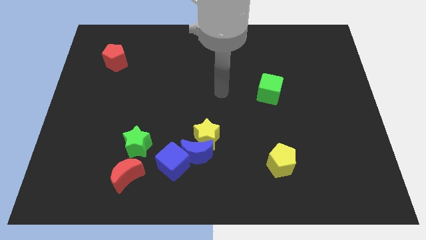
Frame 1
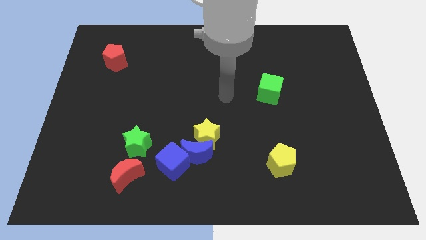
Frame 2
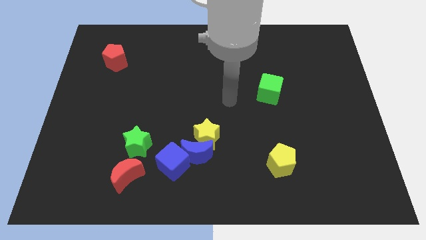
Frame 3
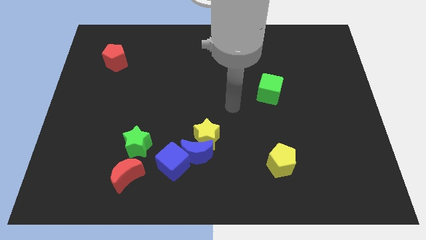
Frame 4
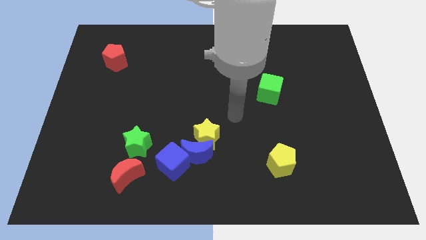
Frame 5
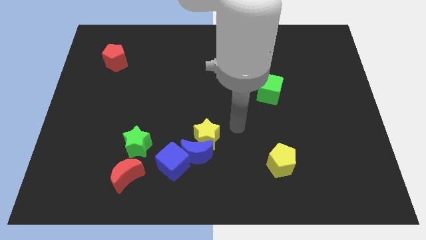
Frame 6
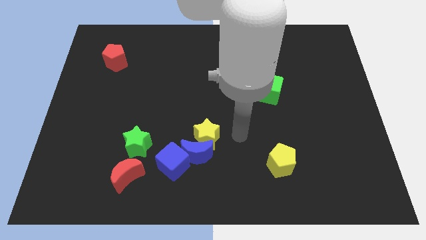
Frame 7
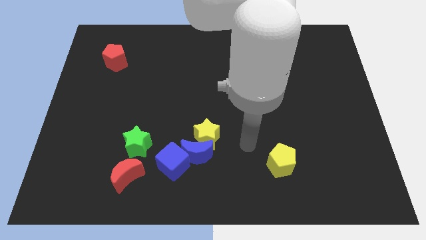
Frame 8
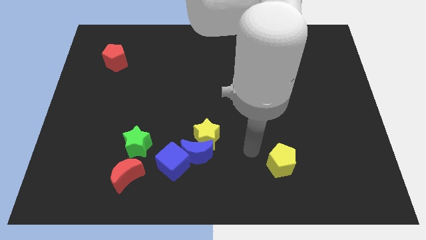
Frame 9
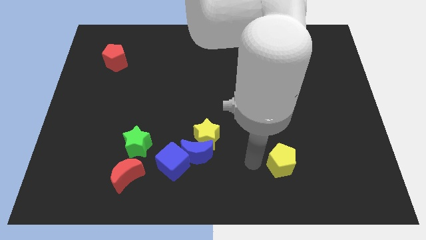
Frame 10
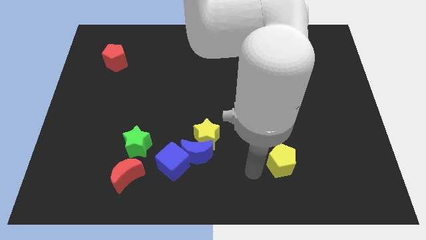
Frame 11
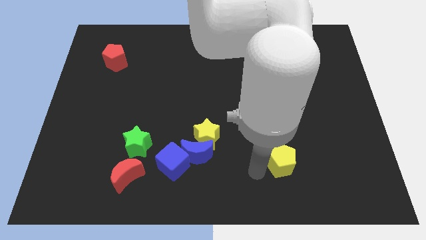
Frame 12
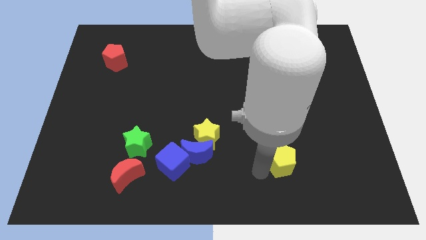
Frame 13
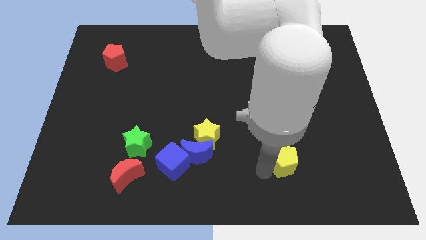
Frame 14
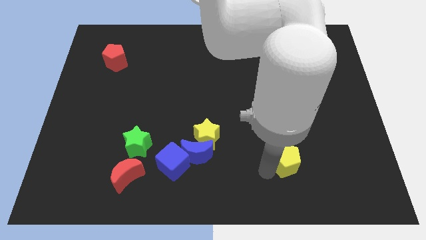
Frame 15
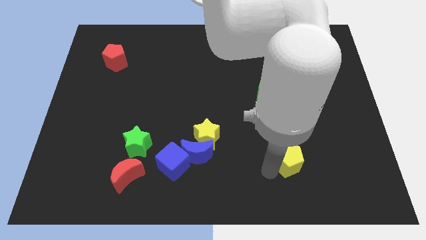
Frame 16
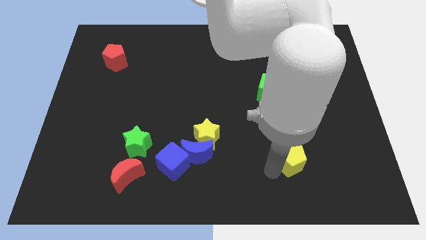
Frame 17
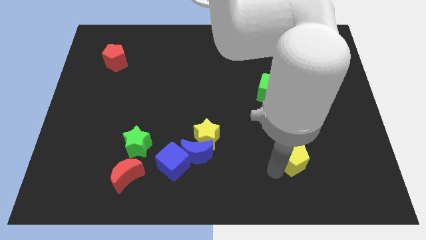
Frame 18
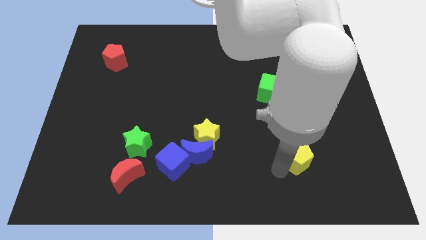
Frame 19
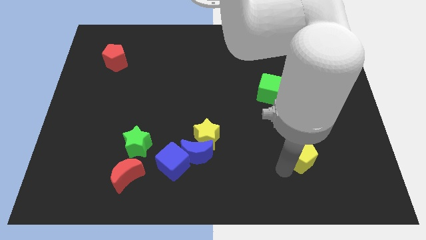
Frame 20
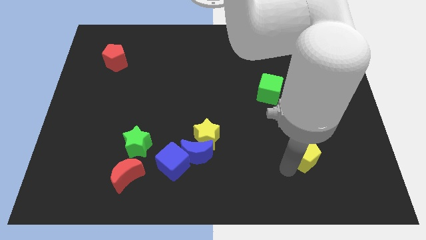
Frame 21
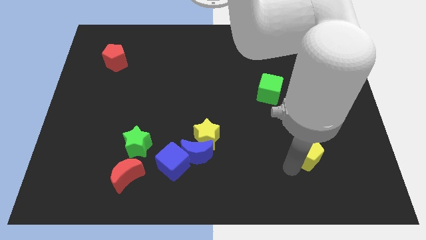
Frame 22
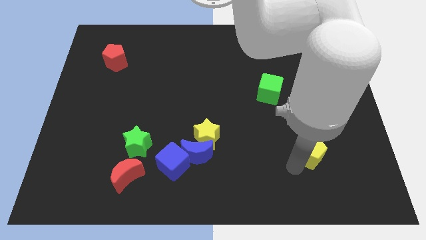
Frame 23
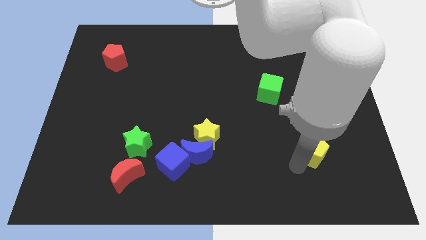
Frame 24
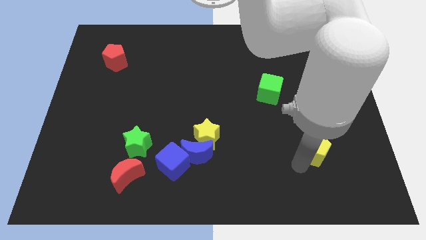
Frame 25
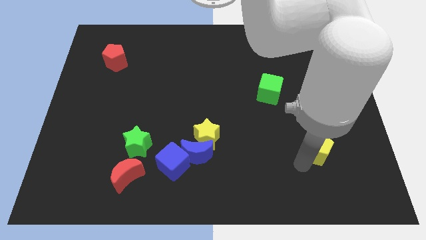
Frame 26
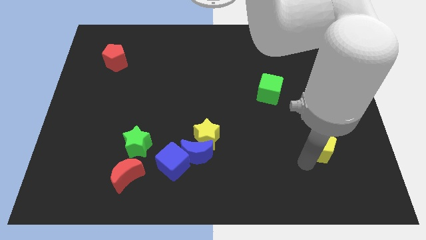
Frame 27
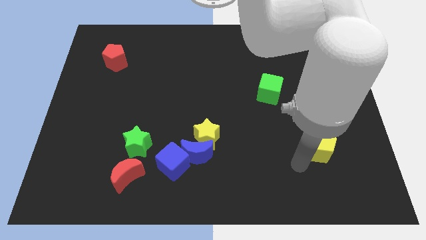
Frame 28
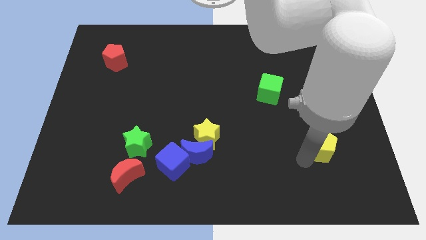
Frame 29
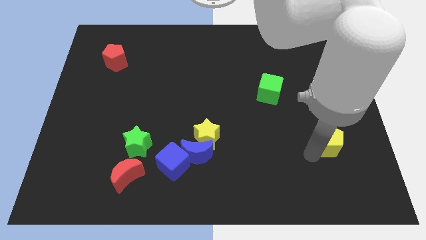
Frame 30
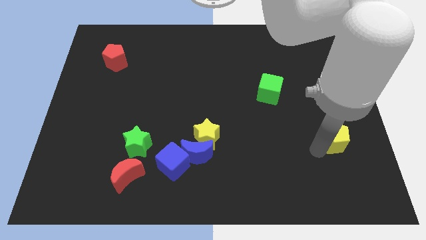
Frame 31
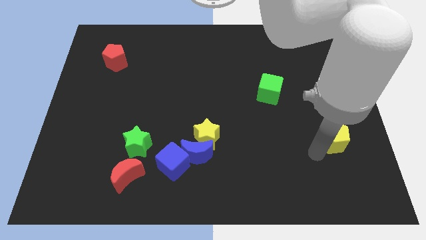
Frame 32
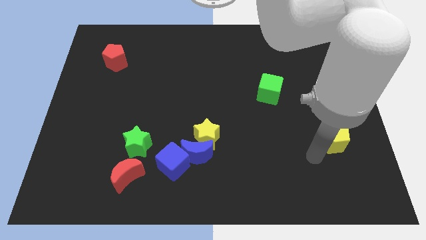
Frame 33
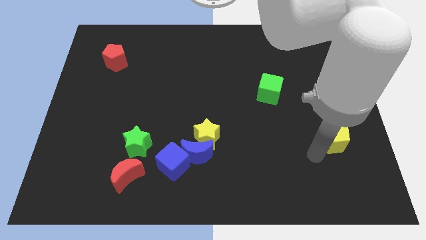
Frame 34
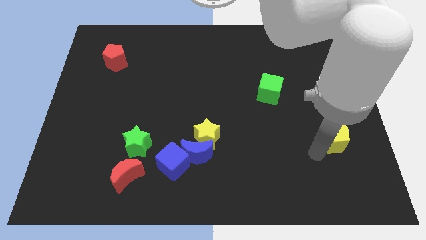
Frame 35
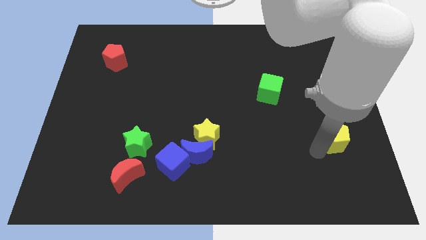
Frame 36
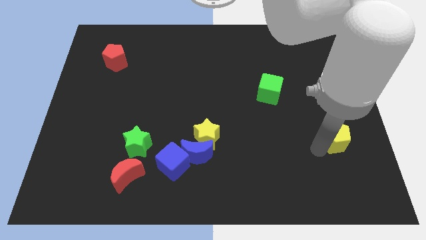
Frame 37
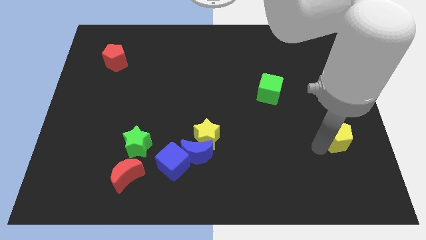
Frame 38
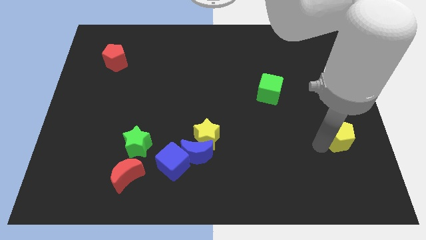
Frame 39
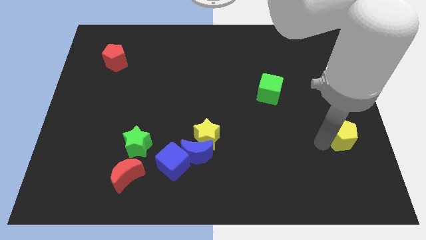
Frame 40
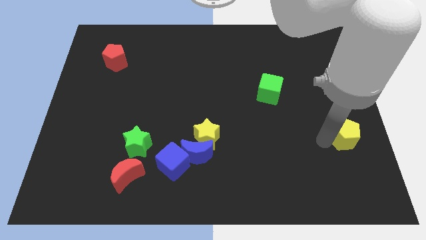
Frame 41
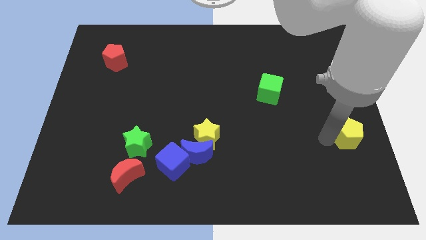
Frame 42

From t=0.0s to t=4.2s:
slide the yellow pentagon to the right side

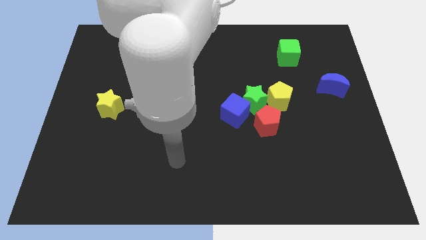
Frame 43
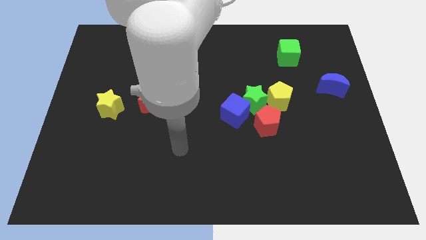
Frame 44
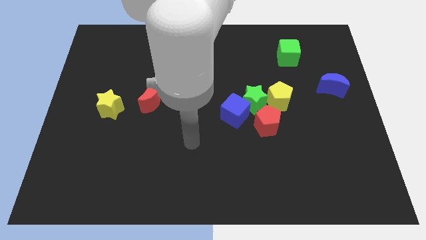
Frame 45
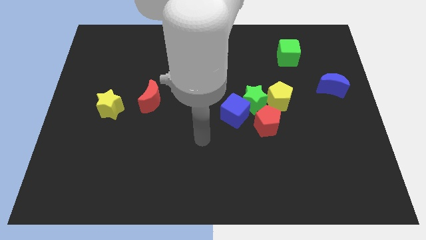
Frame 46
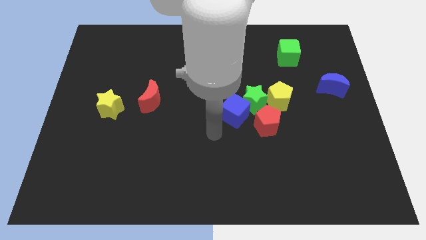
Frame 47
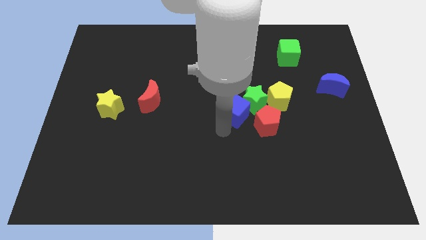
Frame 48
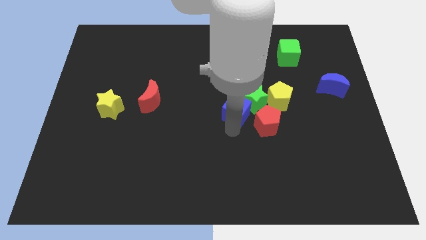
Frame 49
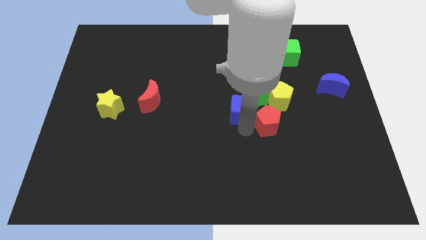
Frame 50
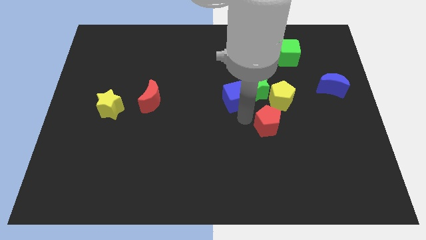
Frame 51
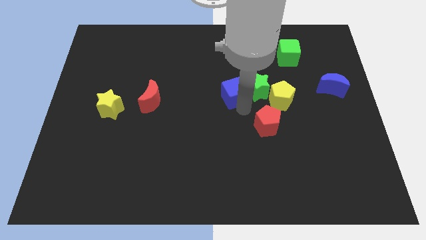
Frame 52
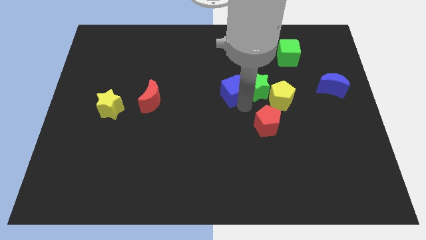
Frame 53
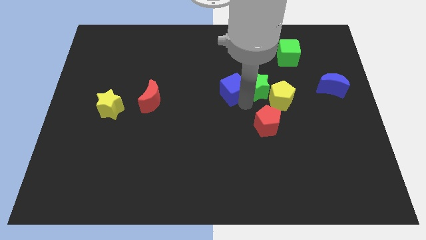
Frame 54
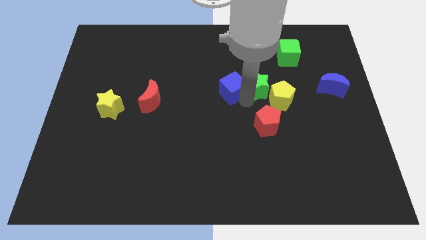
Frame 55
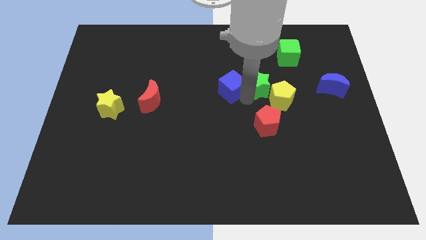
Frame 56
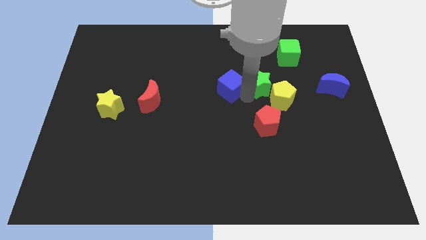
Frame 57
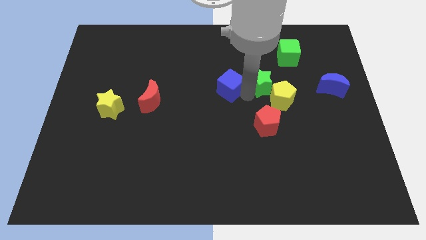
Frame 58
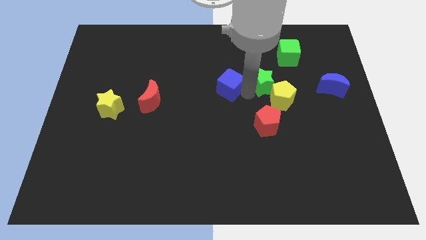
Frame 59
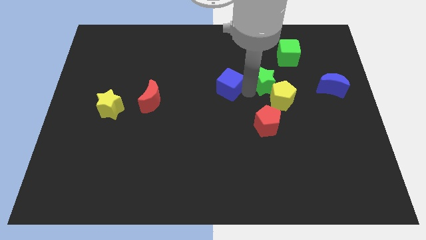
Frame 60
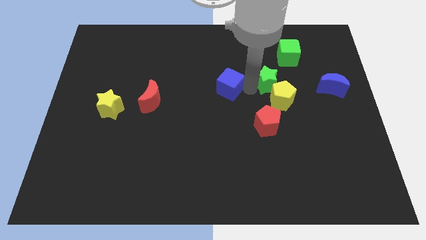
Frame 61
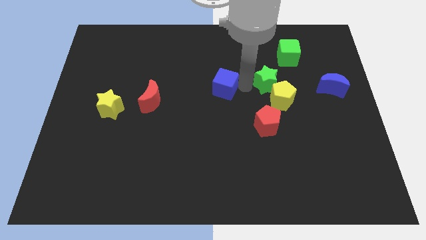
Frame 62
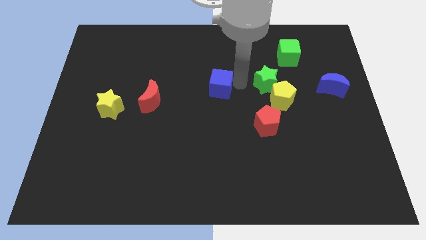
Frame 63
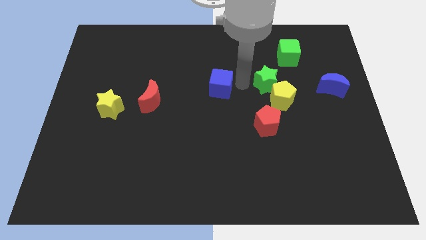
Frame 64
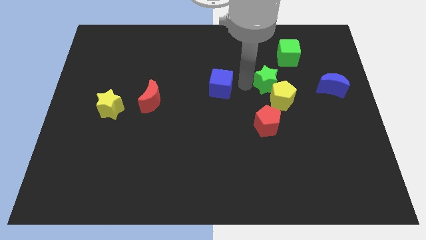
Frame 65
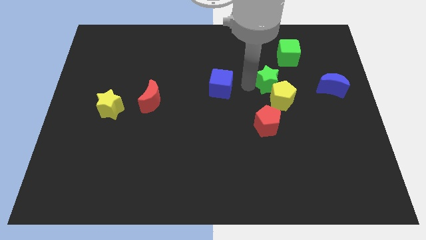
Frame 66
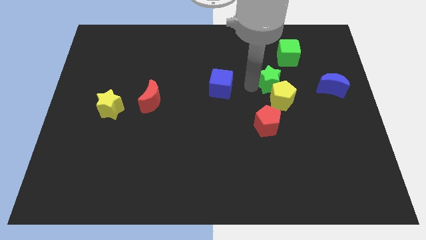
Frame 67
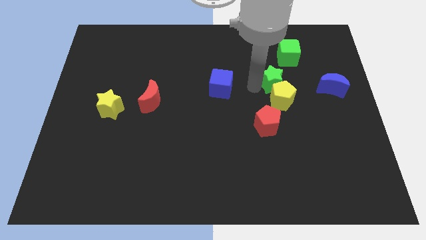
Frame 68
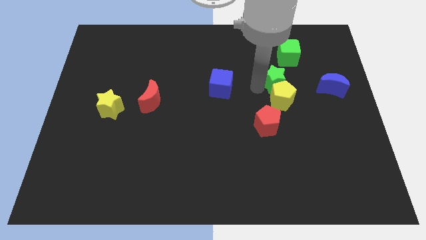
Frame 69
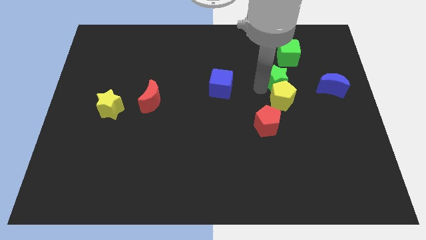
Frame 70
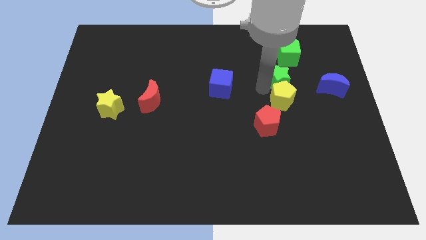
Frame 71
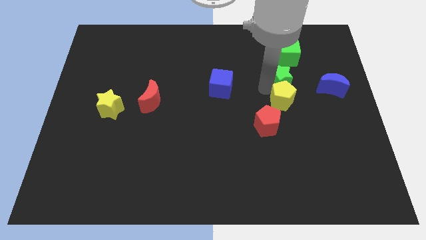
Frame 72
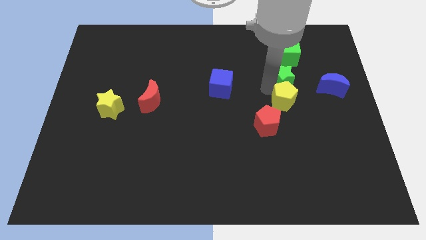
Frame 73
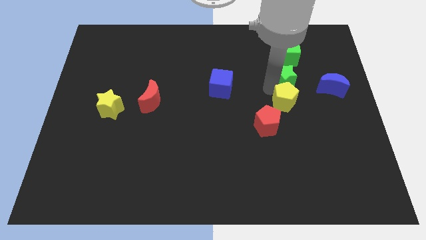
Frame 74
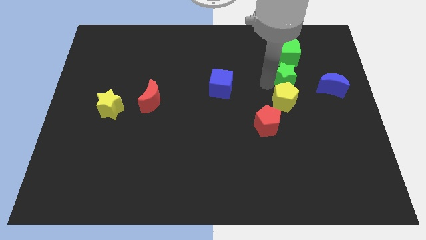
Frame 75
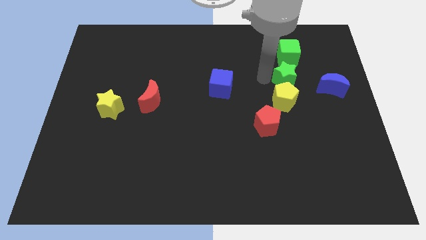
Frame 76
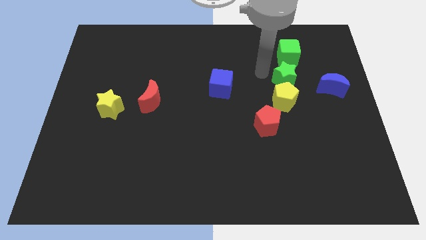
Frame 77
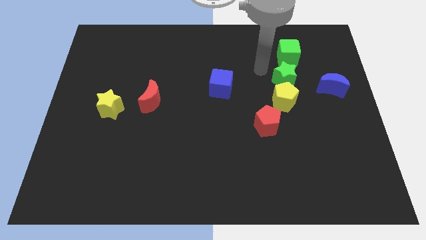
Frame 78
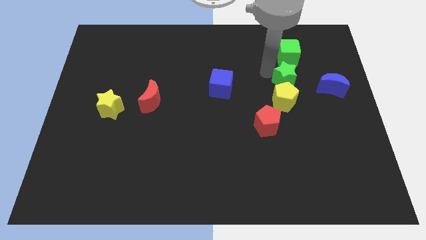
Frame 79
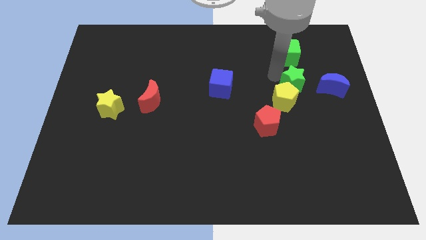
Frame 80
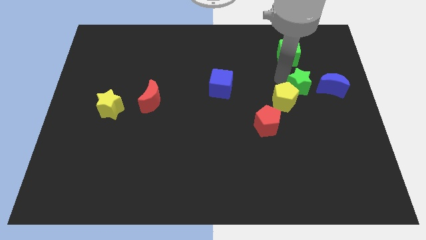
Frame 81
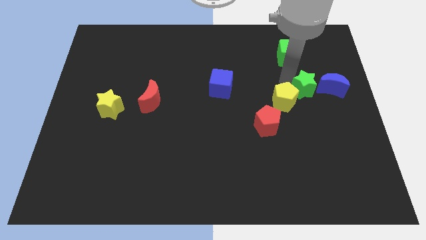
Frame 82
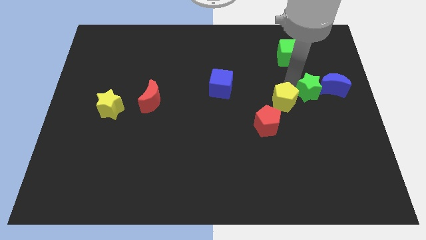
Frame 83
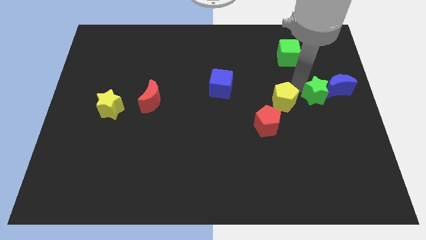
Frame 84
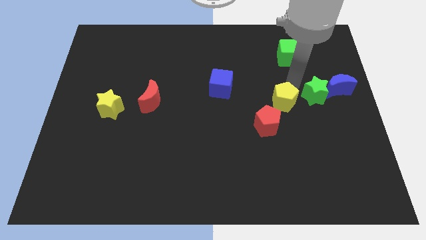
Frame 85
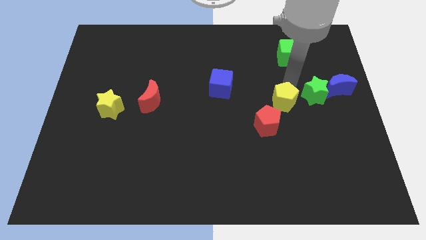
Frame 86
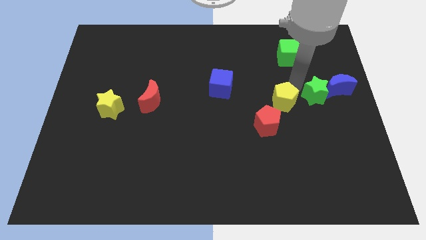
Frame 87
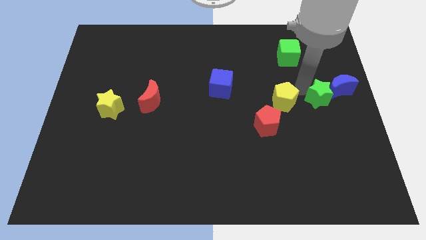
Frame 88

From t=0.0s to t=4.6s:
move the green star to the center right
